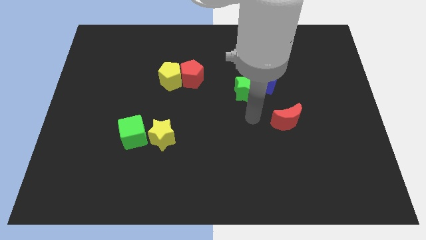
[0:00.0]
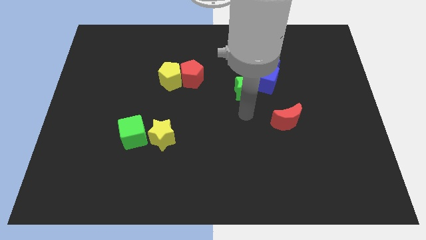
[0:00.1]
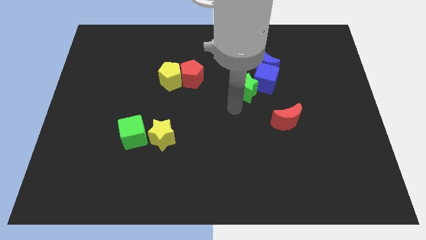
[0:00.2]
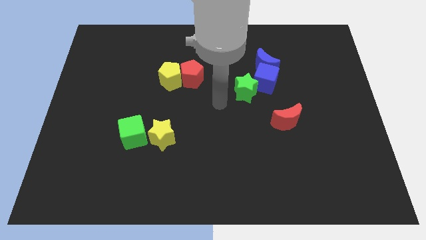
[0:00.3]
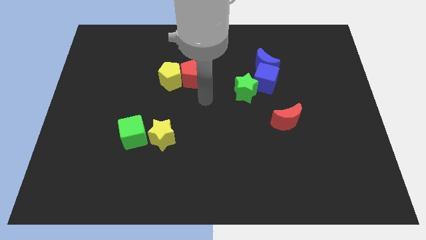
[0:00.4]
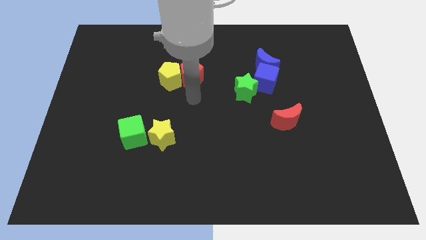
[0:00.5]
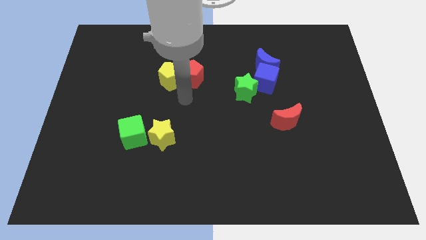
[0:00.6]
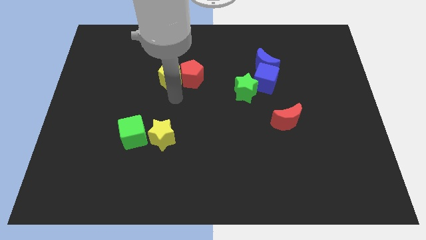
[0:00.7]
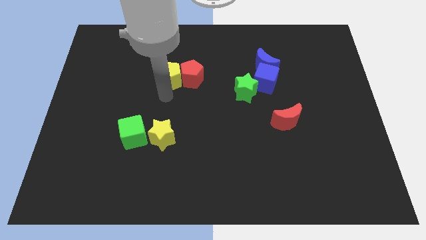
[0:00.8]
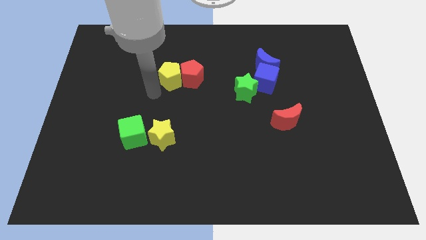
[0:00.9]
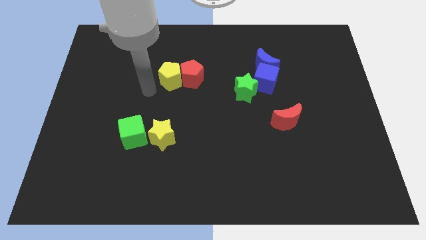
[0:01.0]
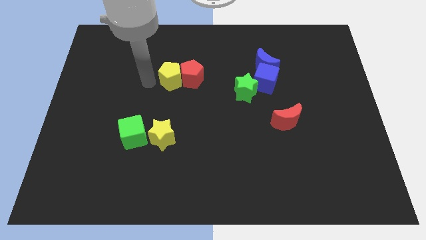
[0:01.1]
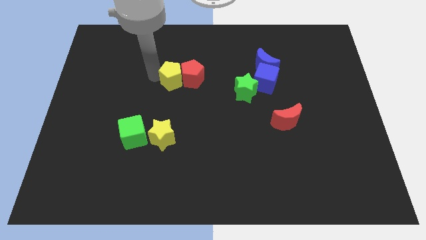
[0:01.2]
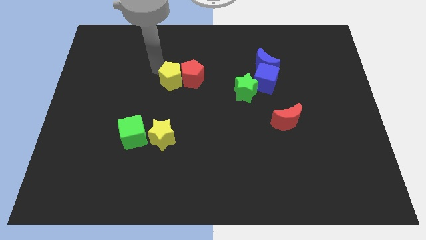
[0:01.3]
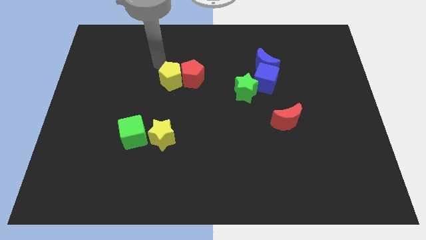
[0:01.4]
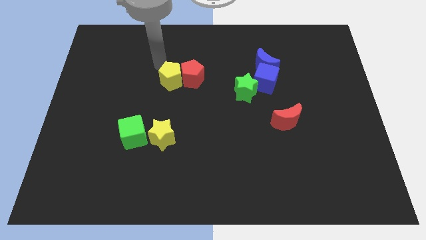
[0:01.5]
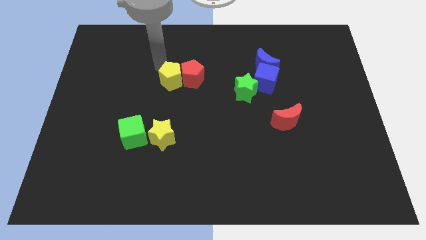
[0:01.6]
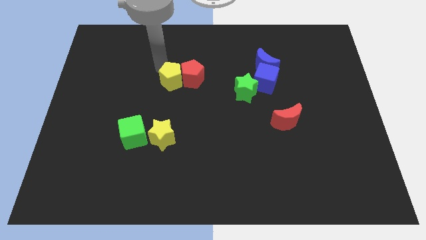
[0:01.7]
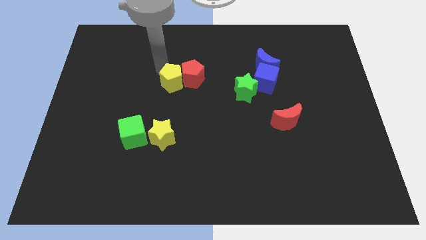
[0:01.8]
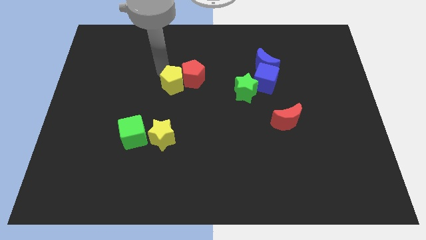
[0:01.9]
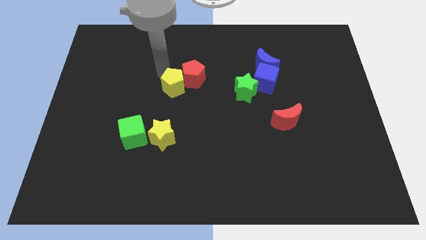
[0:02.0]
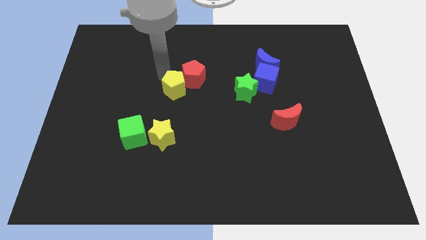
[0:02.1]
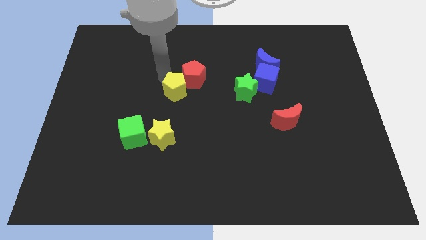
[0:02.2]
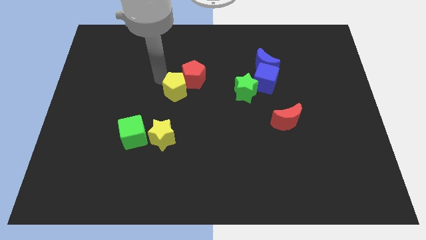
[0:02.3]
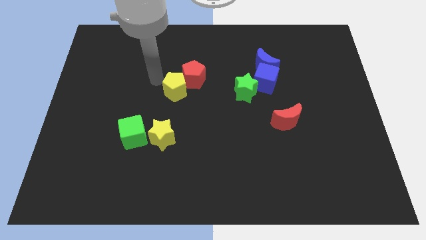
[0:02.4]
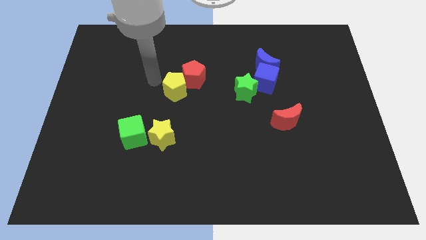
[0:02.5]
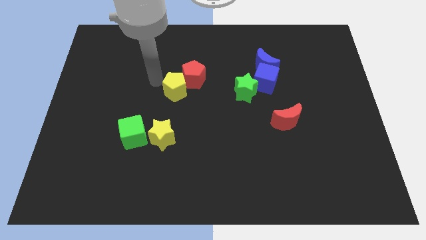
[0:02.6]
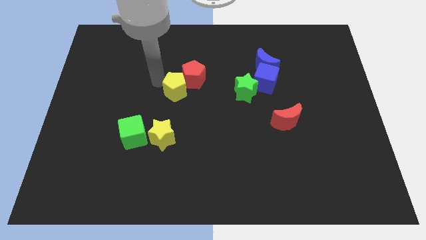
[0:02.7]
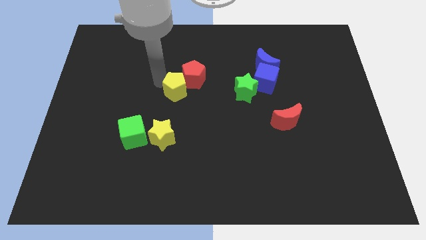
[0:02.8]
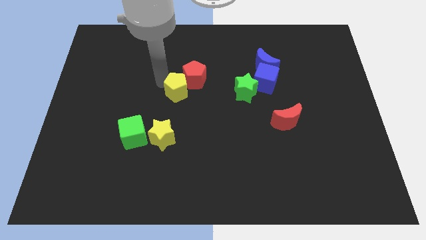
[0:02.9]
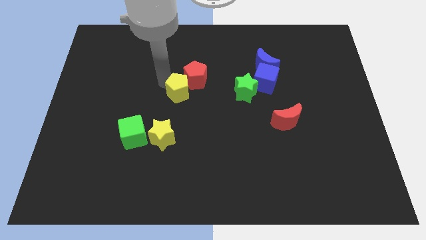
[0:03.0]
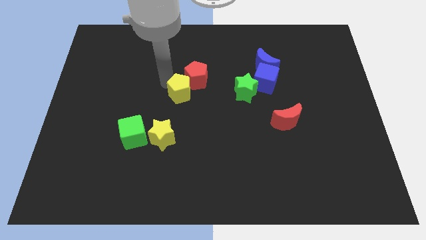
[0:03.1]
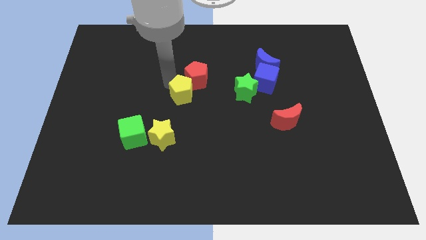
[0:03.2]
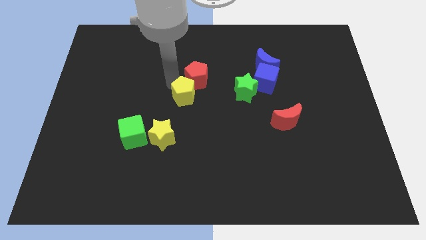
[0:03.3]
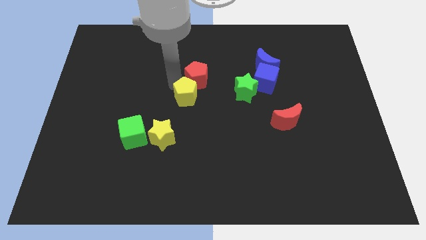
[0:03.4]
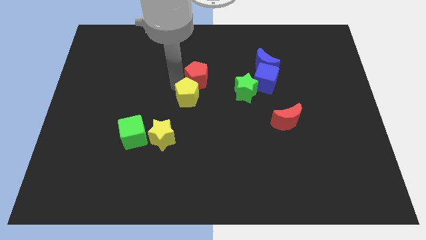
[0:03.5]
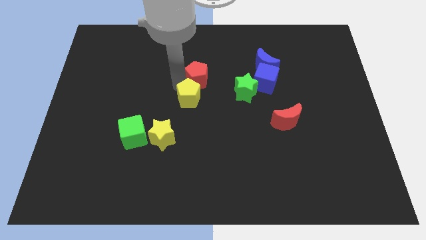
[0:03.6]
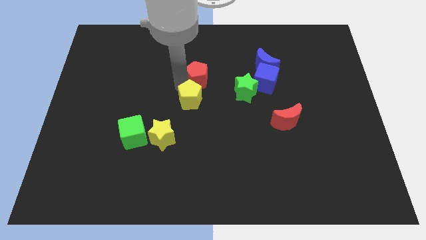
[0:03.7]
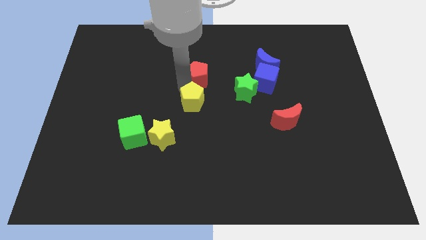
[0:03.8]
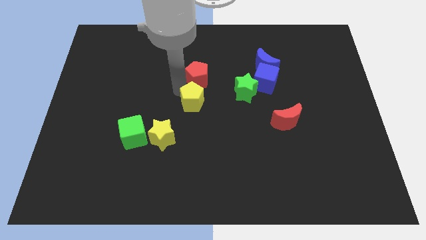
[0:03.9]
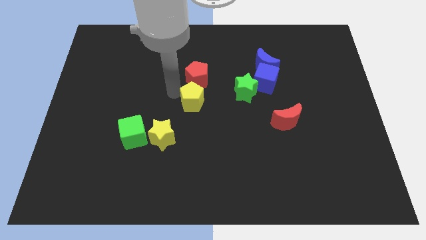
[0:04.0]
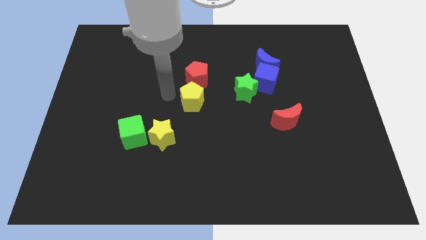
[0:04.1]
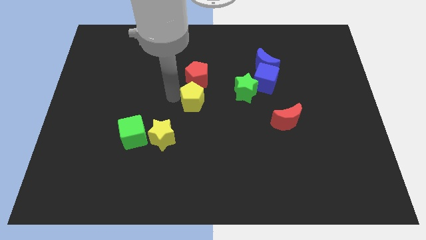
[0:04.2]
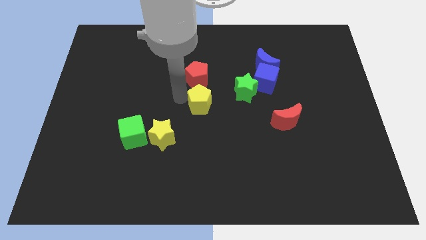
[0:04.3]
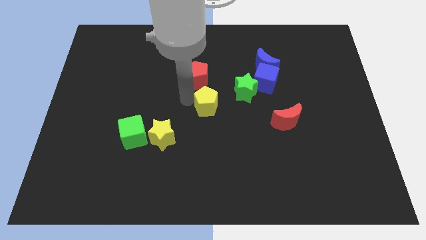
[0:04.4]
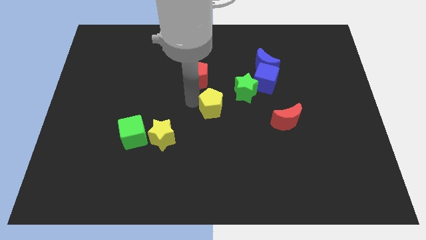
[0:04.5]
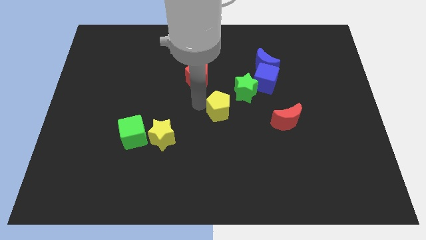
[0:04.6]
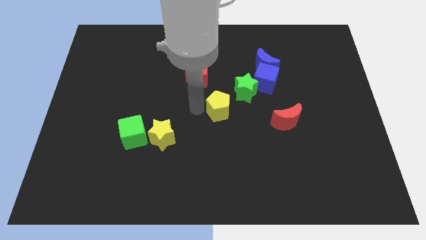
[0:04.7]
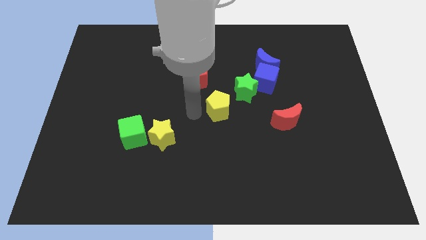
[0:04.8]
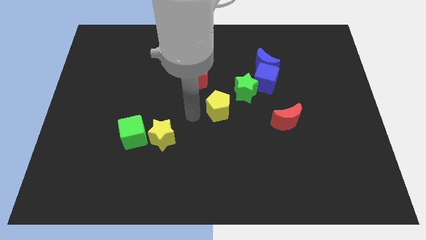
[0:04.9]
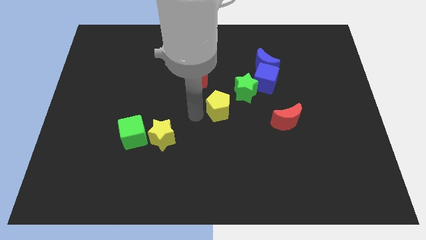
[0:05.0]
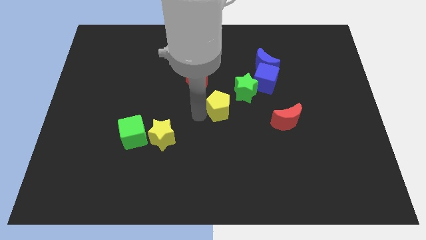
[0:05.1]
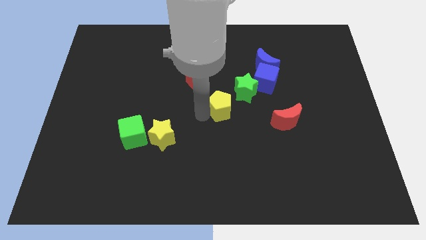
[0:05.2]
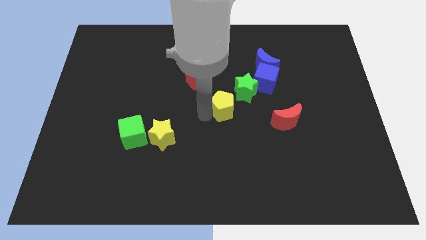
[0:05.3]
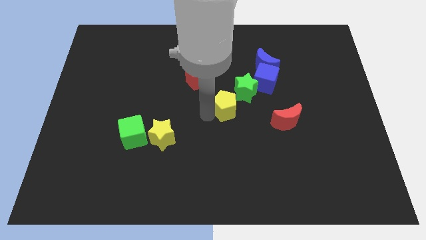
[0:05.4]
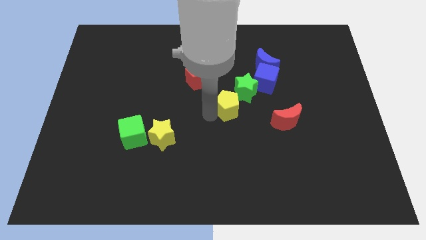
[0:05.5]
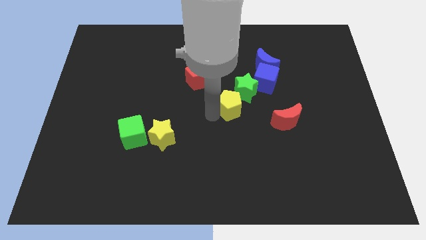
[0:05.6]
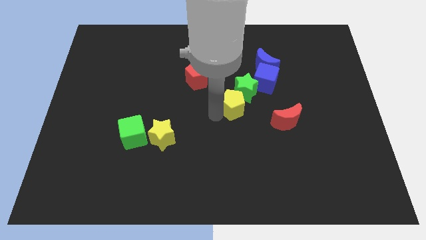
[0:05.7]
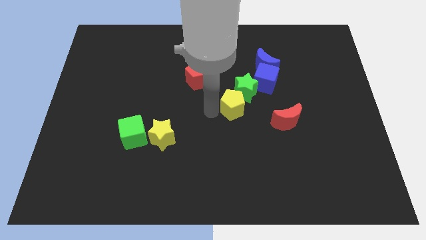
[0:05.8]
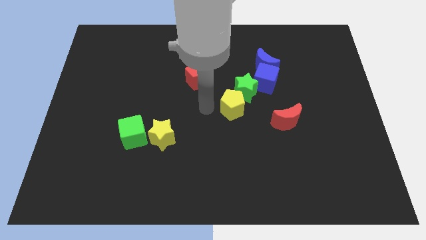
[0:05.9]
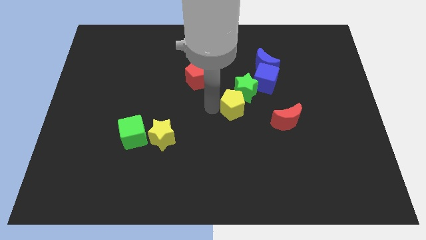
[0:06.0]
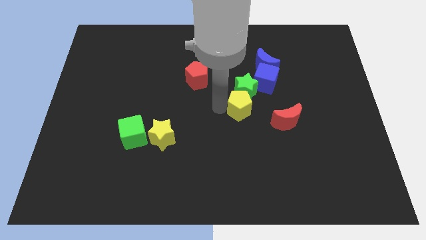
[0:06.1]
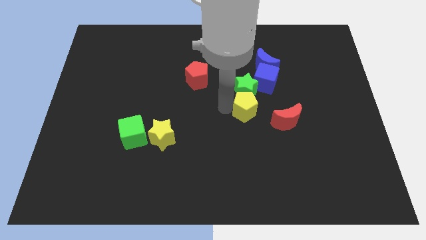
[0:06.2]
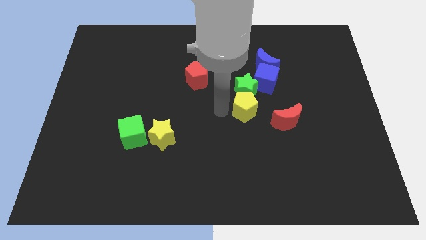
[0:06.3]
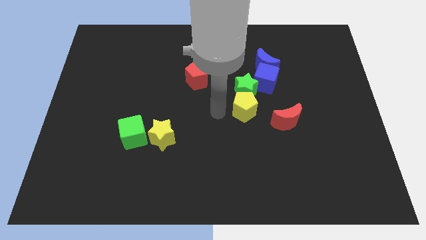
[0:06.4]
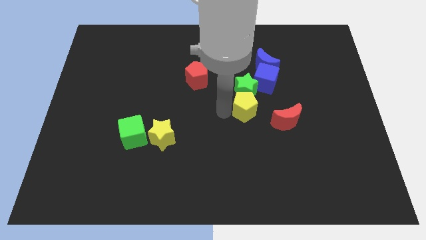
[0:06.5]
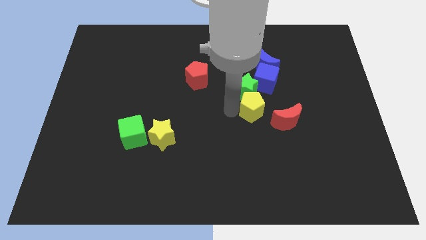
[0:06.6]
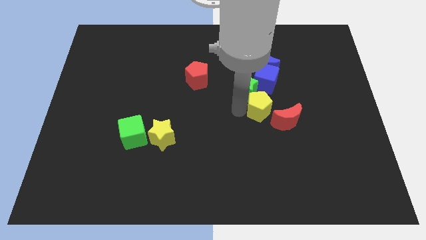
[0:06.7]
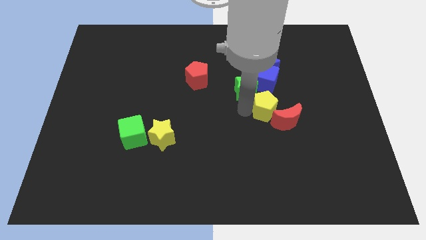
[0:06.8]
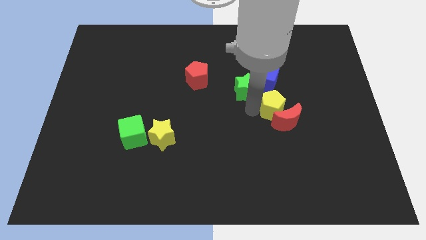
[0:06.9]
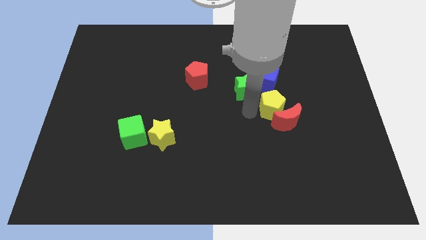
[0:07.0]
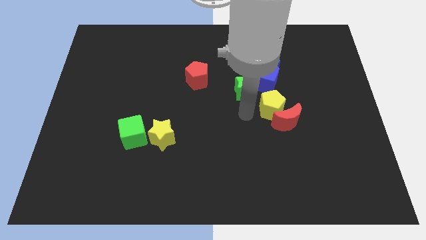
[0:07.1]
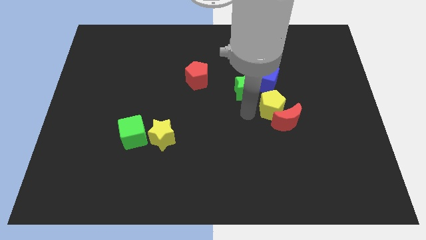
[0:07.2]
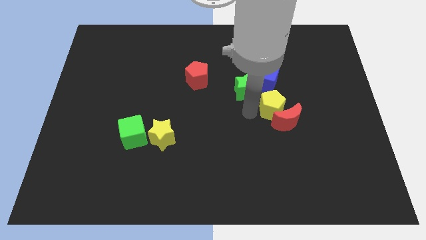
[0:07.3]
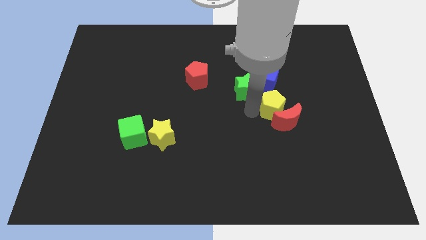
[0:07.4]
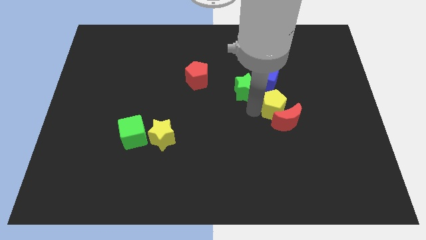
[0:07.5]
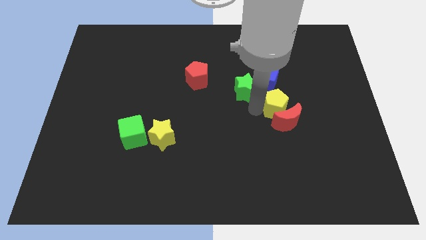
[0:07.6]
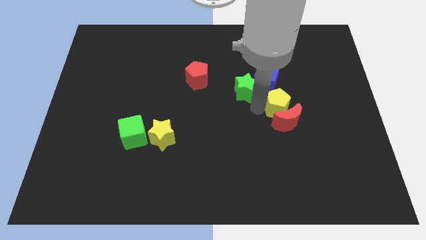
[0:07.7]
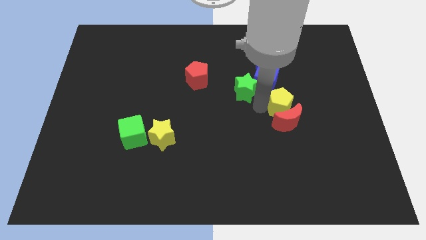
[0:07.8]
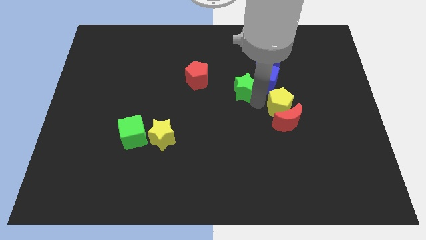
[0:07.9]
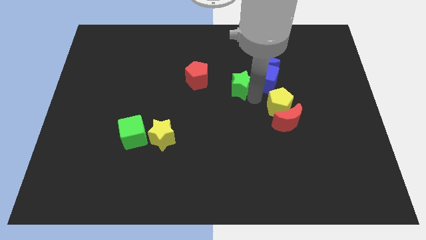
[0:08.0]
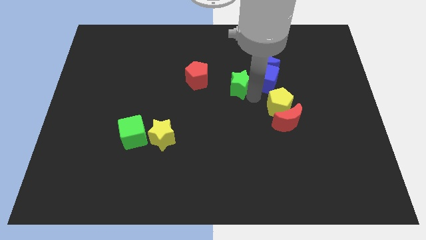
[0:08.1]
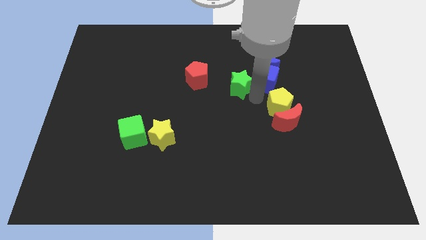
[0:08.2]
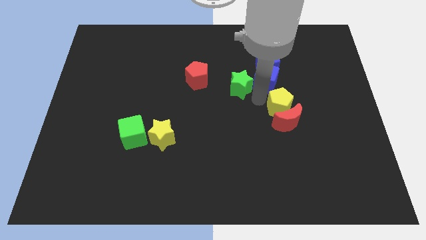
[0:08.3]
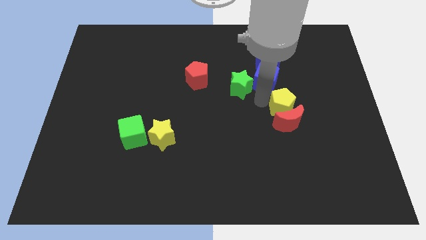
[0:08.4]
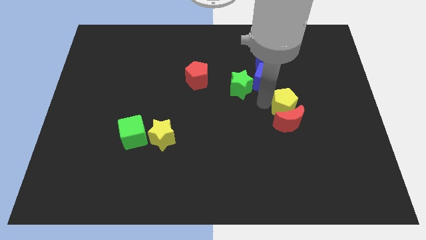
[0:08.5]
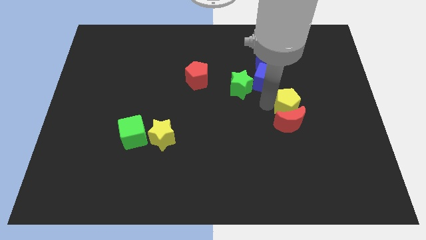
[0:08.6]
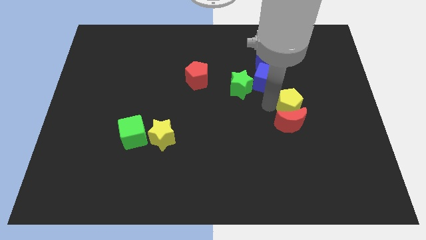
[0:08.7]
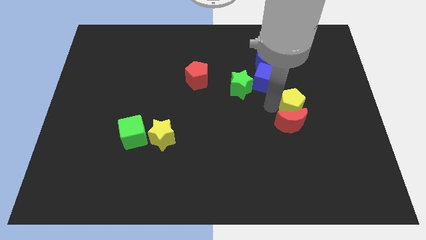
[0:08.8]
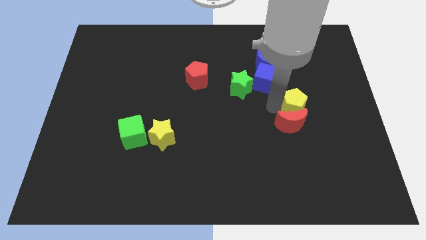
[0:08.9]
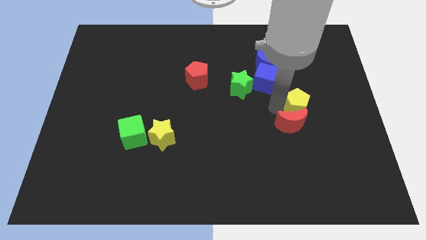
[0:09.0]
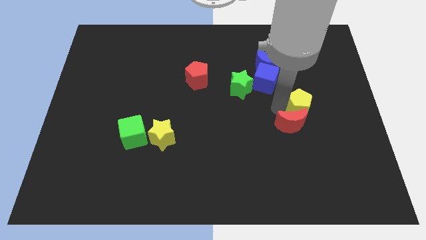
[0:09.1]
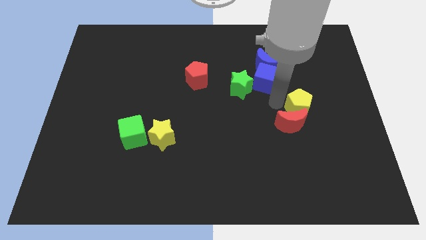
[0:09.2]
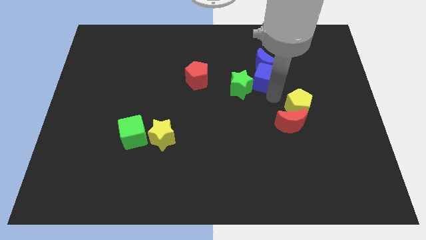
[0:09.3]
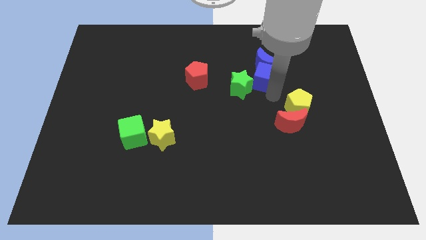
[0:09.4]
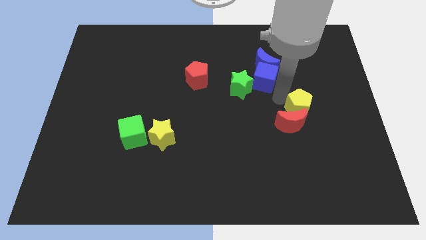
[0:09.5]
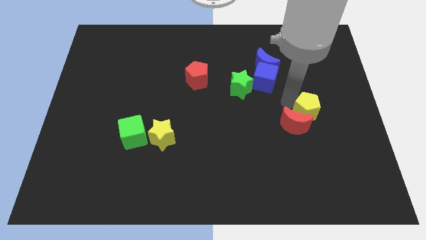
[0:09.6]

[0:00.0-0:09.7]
push the yellow pentagon to the right side of the red moon
